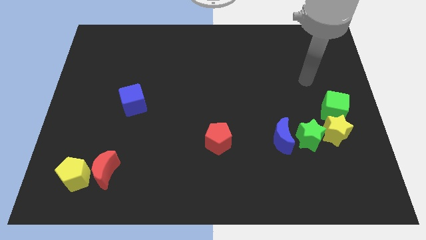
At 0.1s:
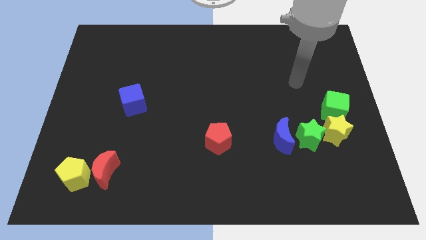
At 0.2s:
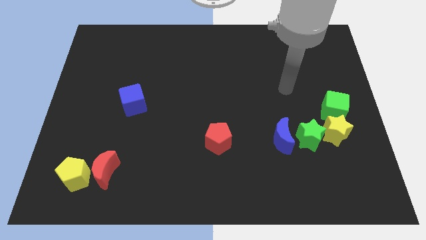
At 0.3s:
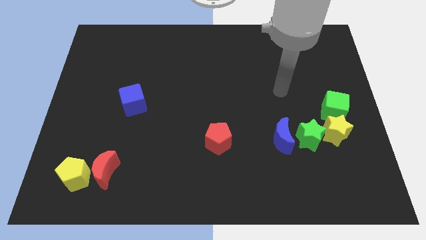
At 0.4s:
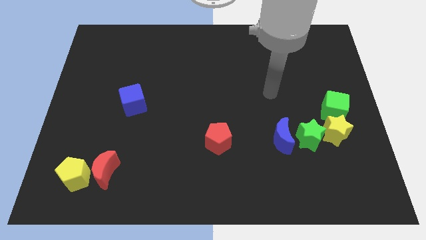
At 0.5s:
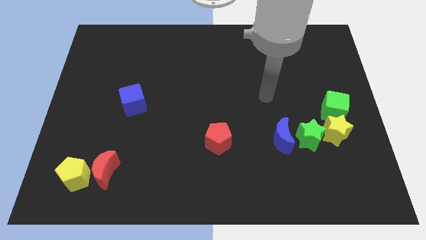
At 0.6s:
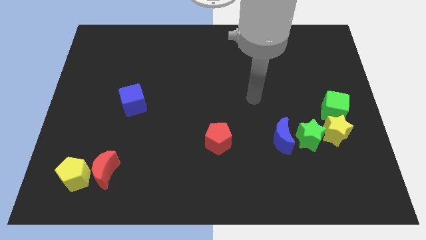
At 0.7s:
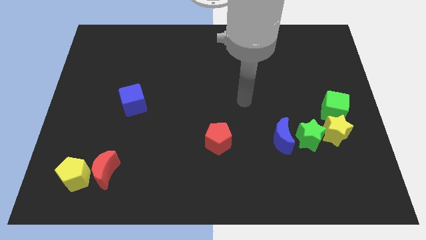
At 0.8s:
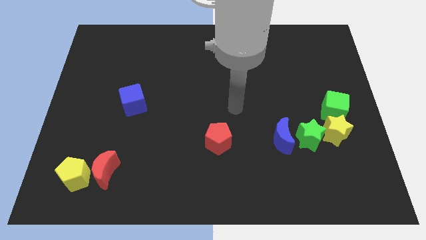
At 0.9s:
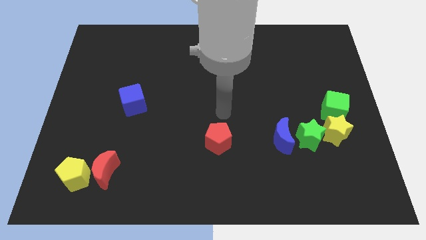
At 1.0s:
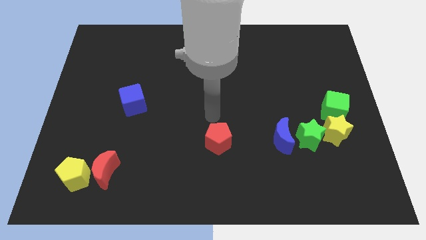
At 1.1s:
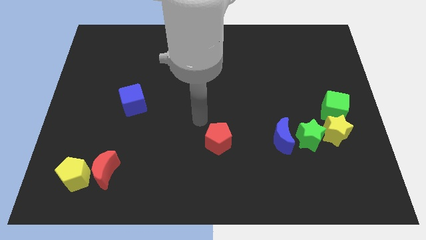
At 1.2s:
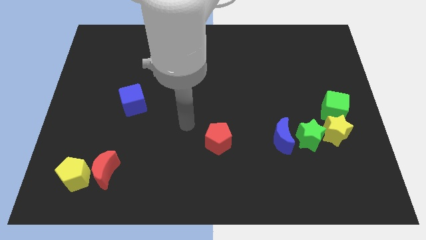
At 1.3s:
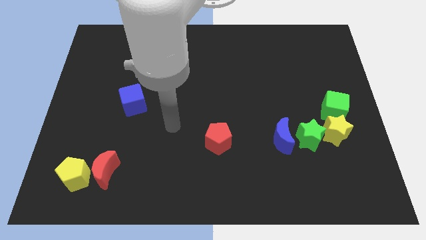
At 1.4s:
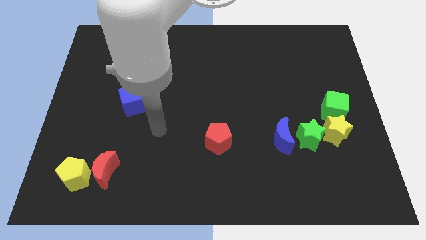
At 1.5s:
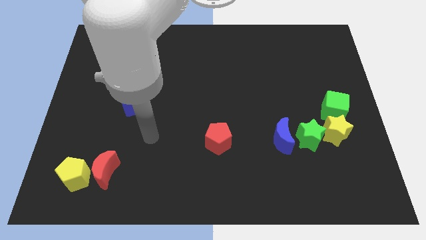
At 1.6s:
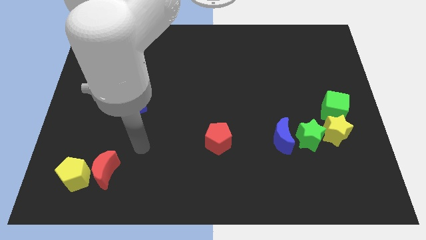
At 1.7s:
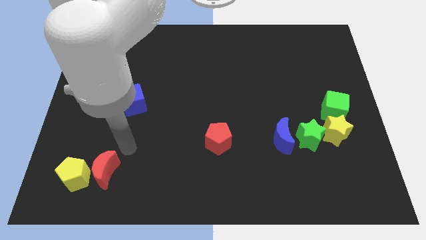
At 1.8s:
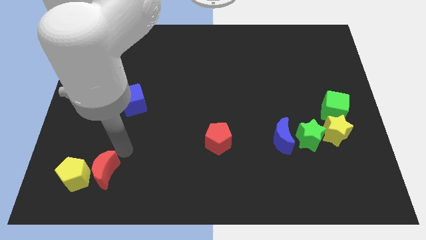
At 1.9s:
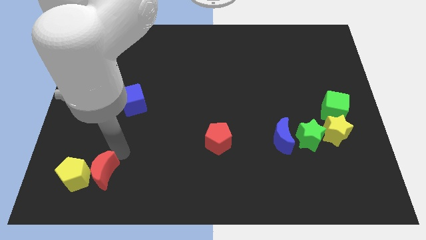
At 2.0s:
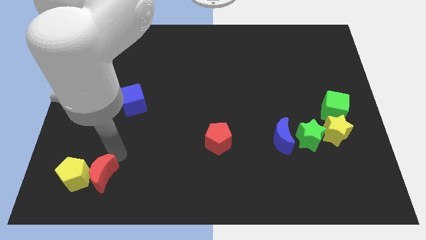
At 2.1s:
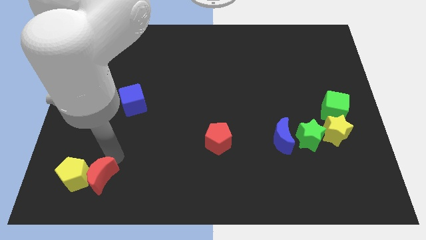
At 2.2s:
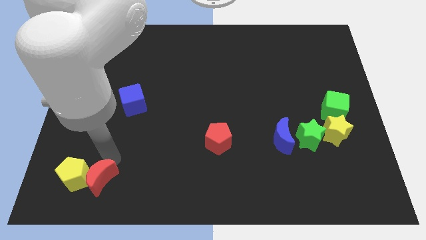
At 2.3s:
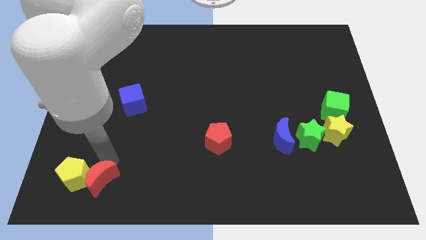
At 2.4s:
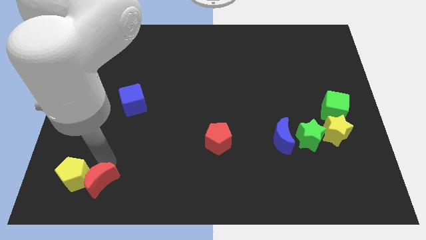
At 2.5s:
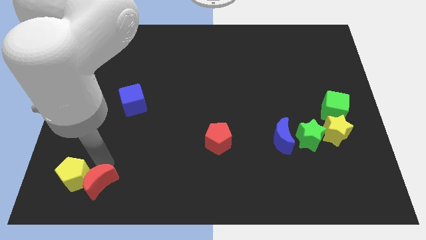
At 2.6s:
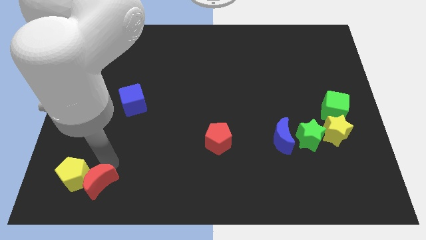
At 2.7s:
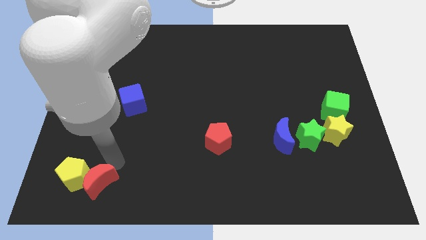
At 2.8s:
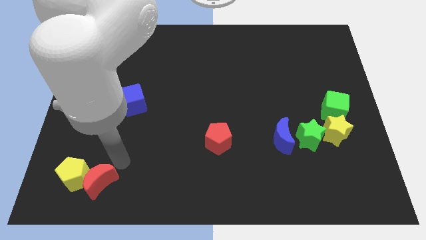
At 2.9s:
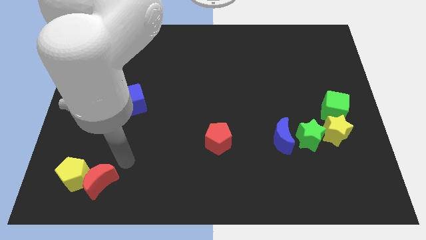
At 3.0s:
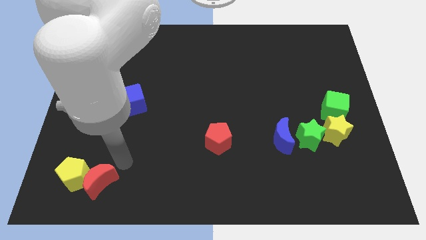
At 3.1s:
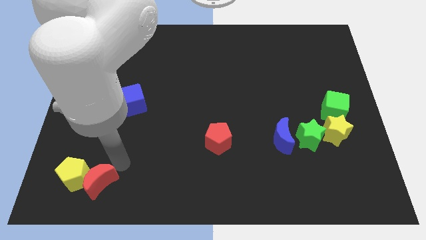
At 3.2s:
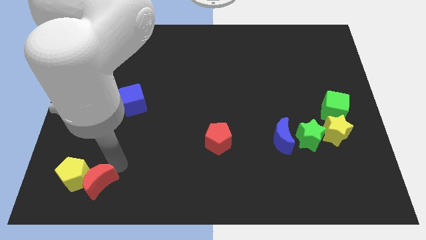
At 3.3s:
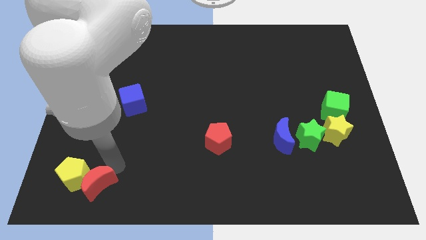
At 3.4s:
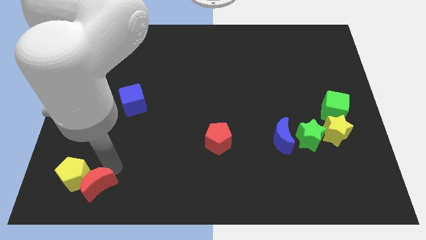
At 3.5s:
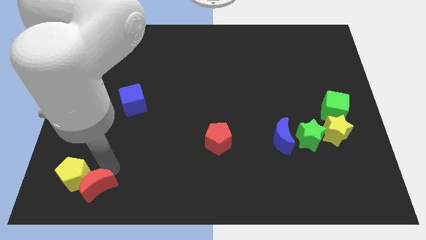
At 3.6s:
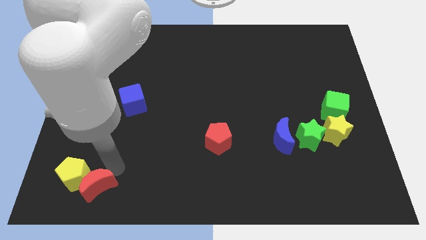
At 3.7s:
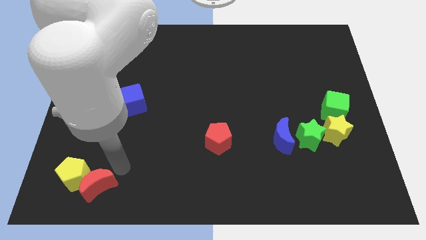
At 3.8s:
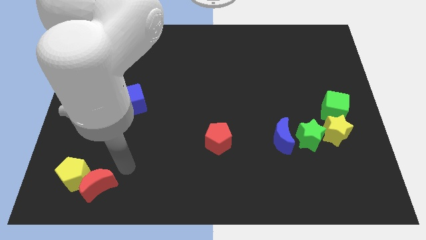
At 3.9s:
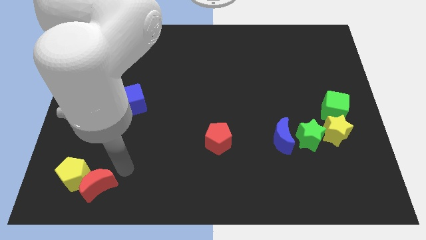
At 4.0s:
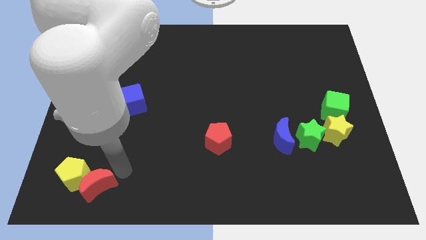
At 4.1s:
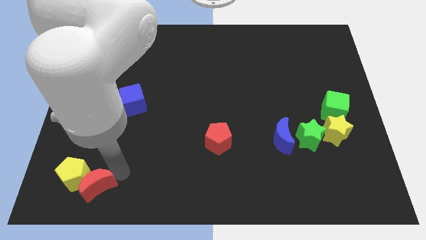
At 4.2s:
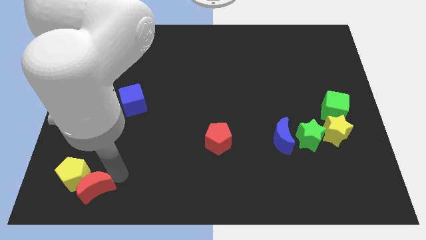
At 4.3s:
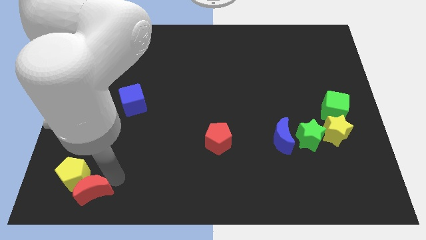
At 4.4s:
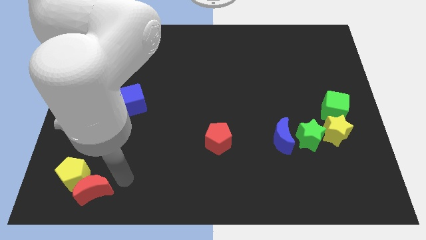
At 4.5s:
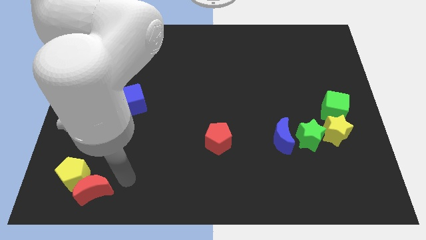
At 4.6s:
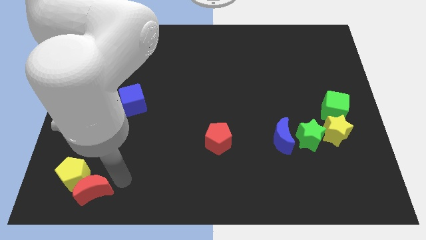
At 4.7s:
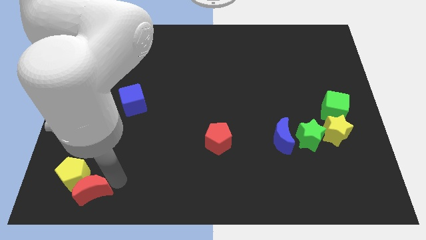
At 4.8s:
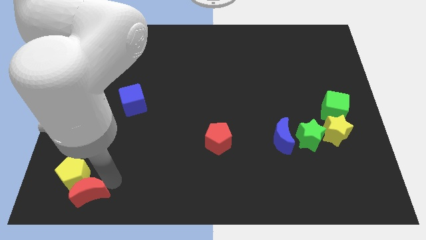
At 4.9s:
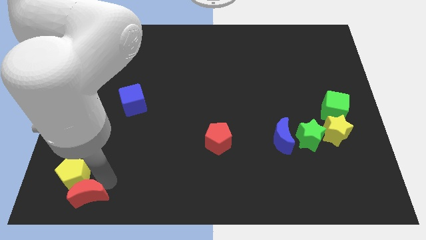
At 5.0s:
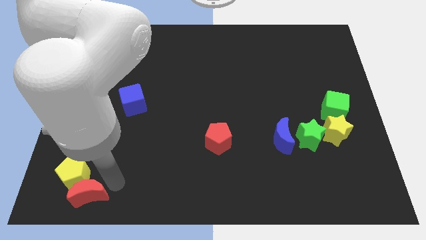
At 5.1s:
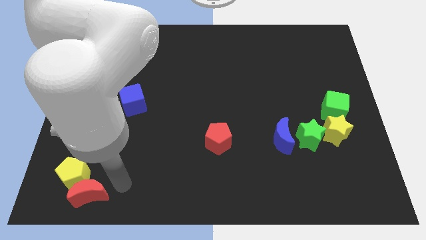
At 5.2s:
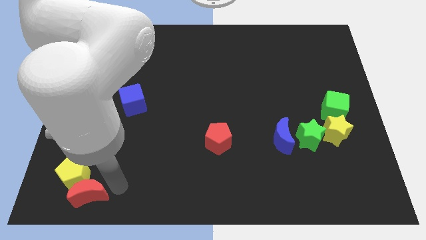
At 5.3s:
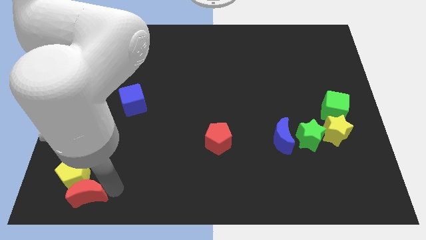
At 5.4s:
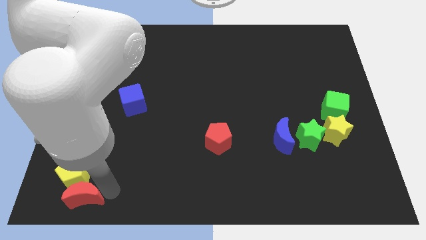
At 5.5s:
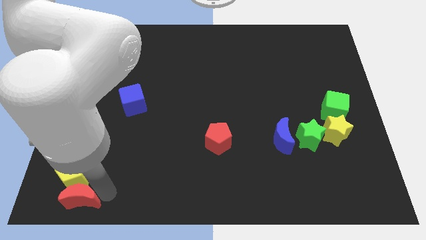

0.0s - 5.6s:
move the red moon to the bottom left

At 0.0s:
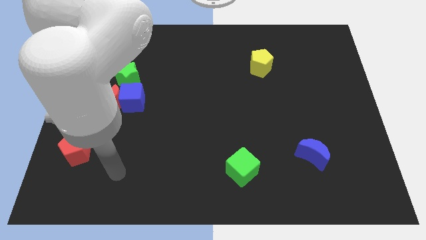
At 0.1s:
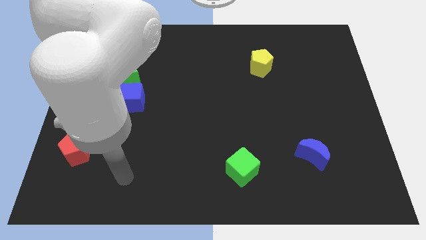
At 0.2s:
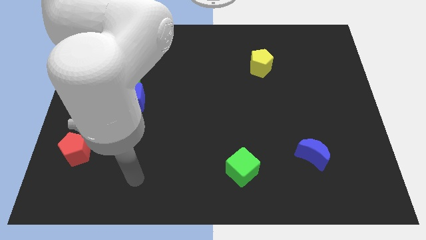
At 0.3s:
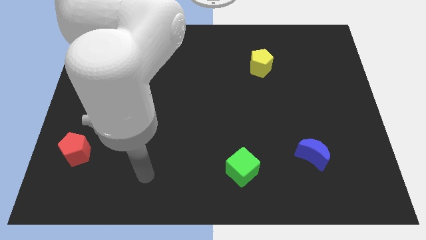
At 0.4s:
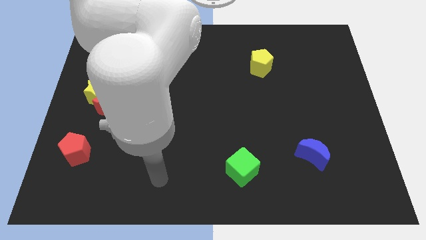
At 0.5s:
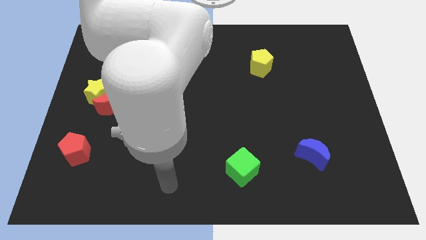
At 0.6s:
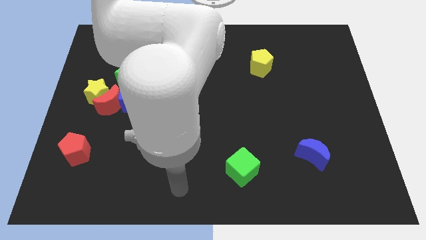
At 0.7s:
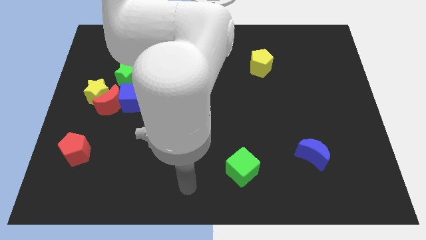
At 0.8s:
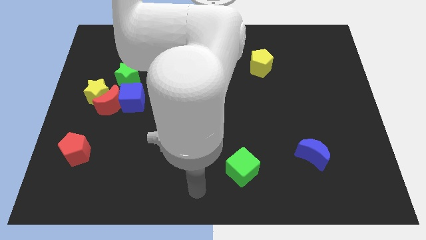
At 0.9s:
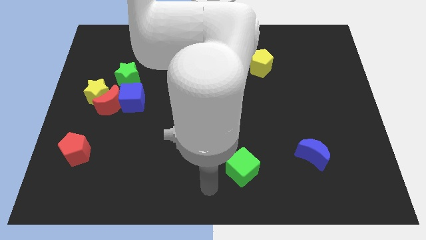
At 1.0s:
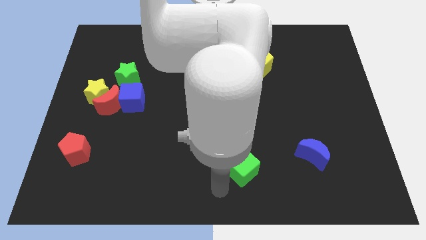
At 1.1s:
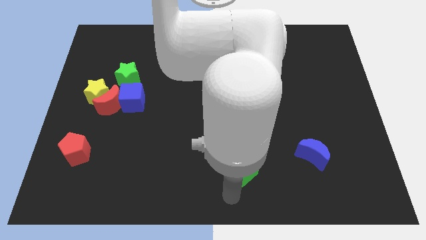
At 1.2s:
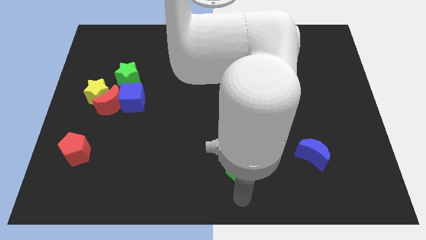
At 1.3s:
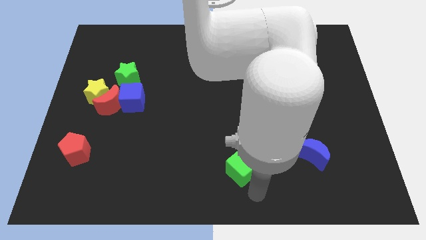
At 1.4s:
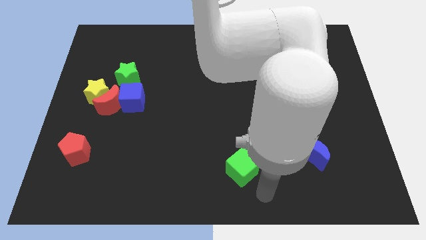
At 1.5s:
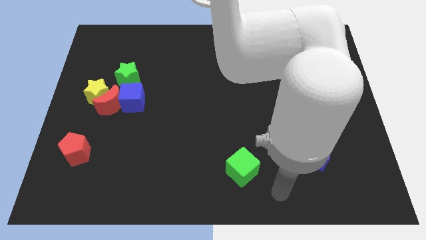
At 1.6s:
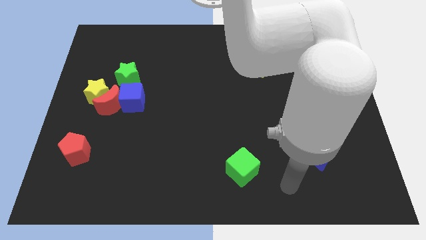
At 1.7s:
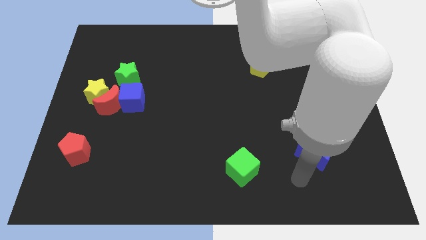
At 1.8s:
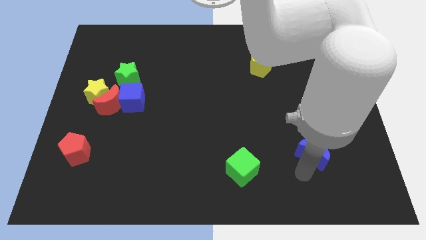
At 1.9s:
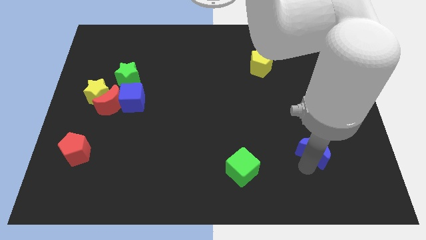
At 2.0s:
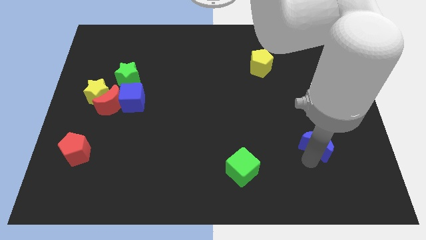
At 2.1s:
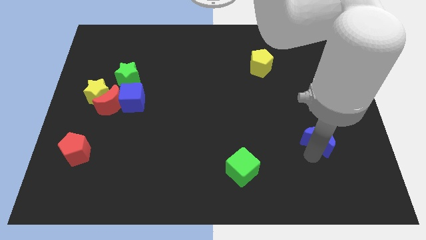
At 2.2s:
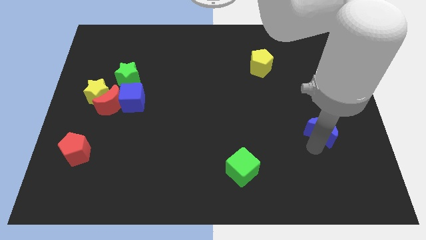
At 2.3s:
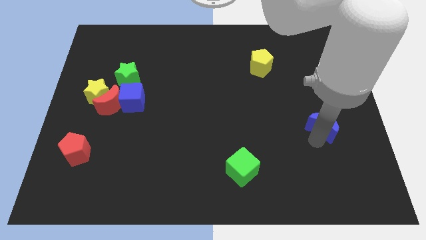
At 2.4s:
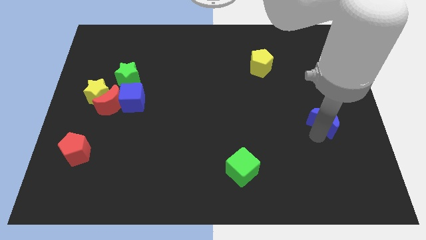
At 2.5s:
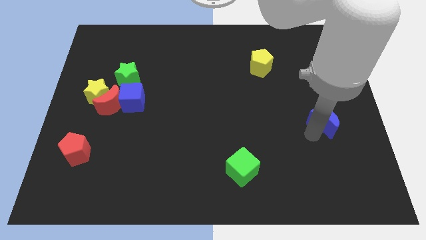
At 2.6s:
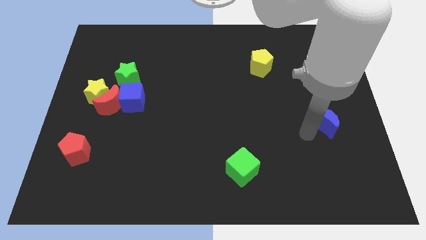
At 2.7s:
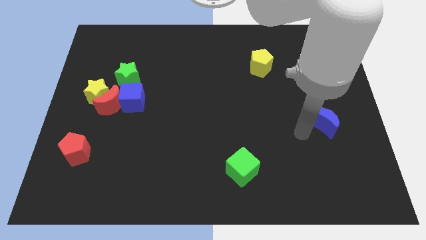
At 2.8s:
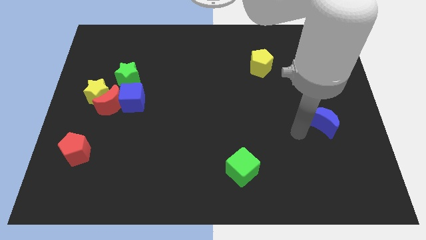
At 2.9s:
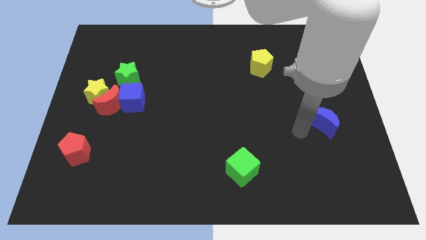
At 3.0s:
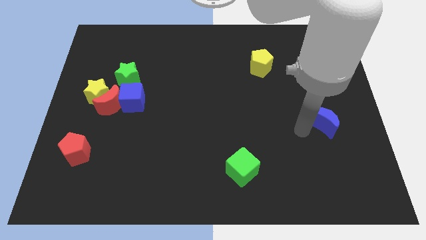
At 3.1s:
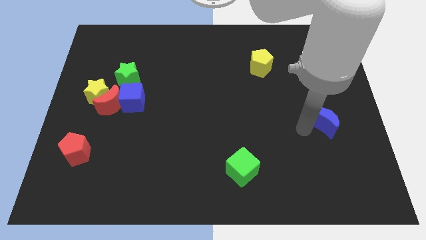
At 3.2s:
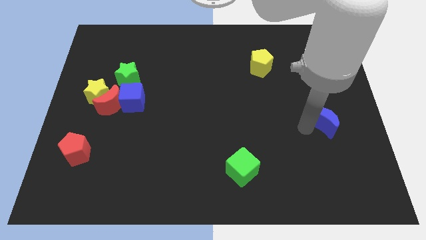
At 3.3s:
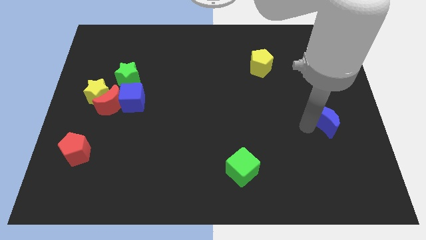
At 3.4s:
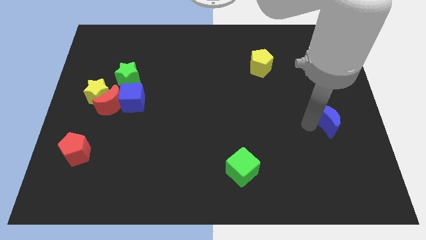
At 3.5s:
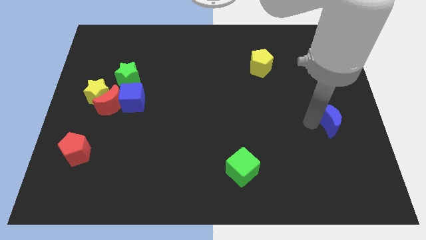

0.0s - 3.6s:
put the blue moon to the right side of the board
